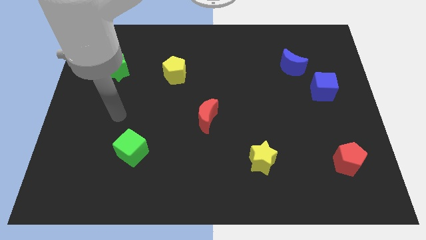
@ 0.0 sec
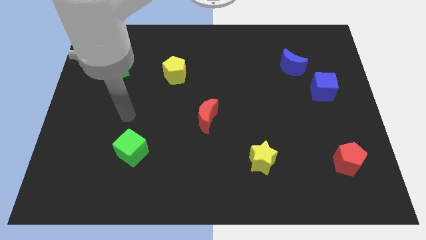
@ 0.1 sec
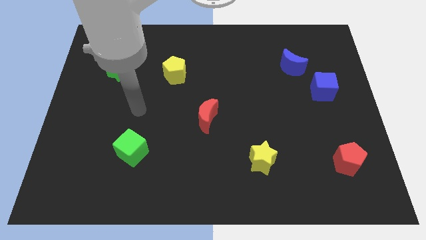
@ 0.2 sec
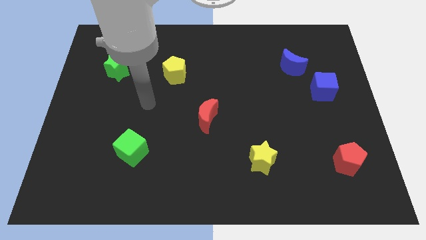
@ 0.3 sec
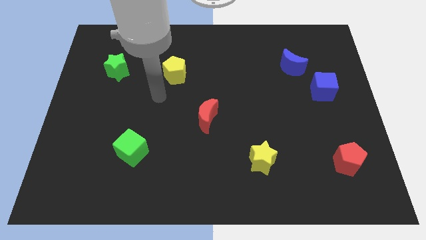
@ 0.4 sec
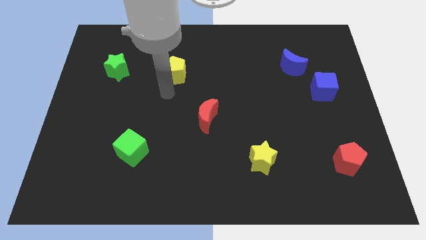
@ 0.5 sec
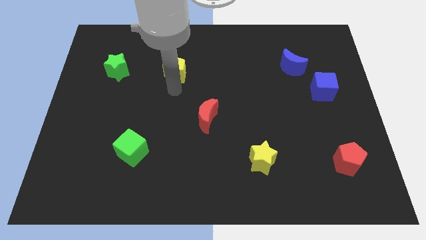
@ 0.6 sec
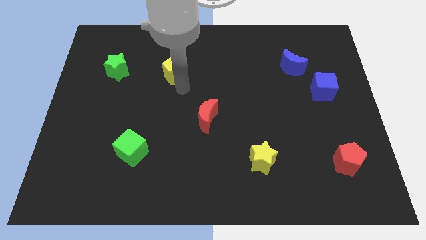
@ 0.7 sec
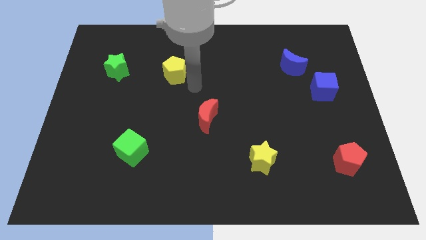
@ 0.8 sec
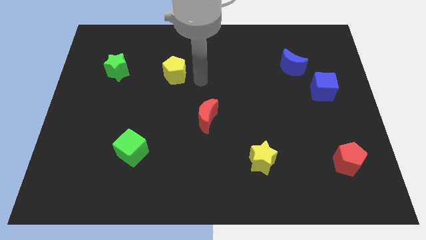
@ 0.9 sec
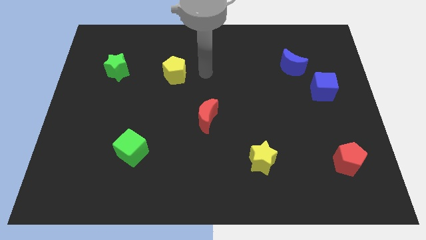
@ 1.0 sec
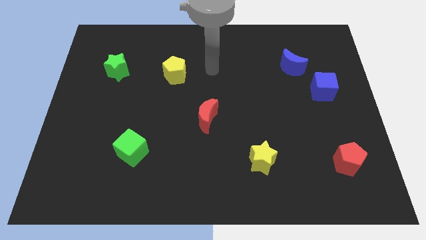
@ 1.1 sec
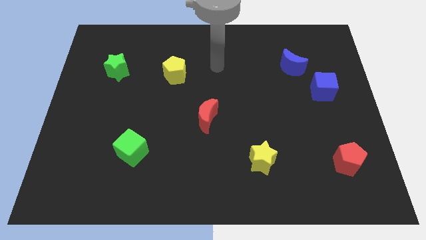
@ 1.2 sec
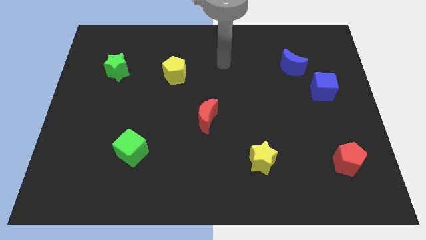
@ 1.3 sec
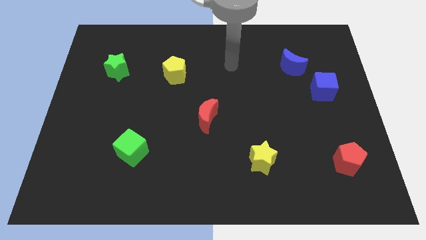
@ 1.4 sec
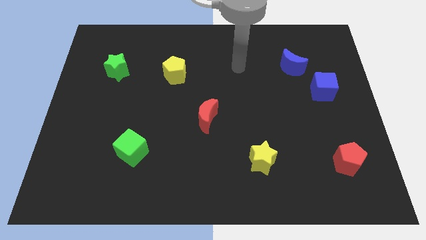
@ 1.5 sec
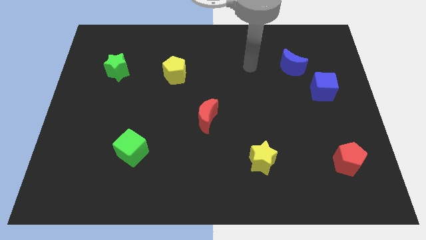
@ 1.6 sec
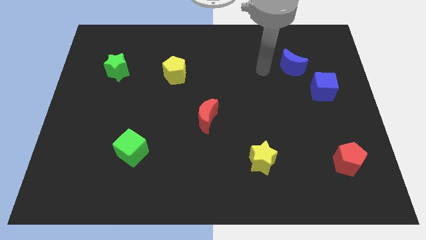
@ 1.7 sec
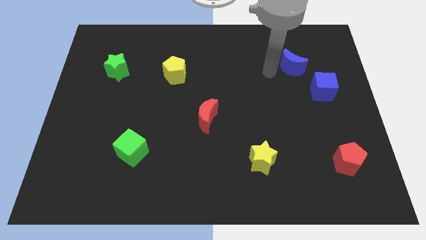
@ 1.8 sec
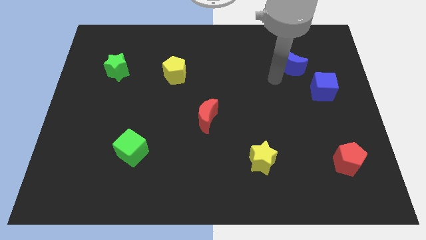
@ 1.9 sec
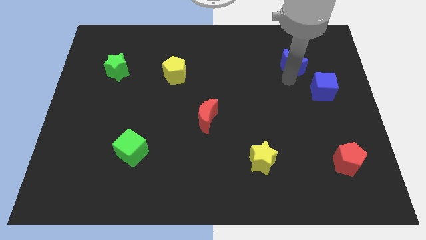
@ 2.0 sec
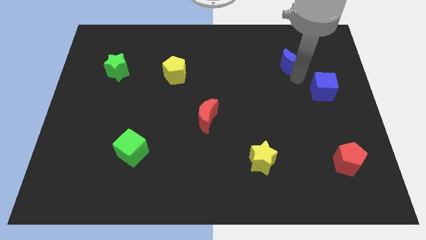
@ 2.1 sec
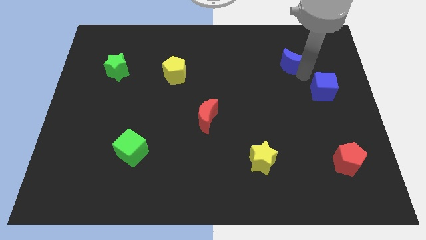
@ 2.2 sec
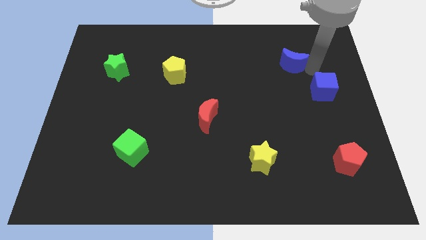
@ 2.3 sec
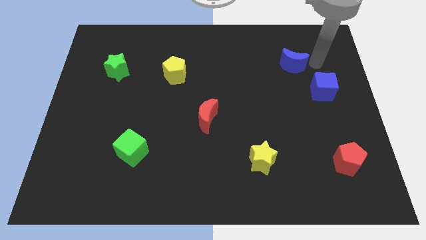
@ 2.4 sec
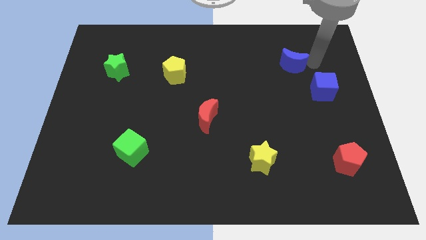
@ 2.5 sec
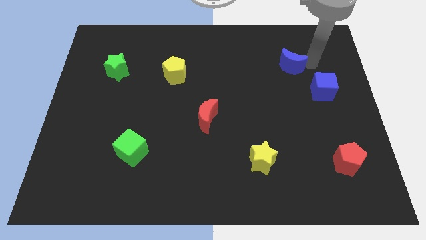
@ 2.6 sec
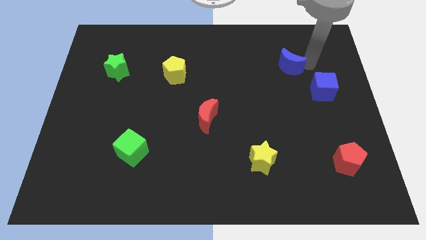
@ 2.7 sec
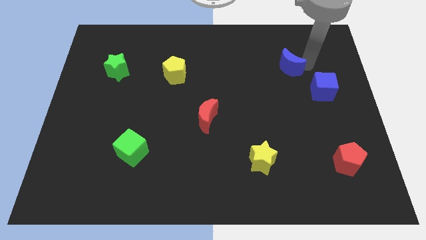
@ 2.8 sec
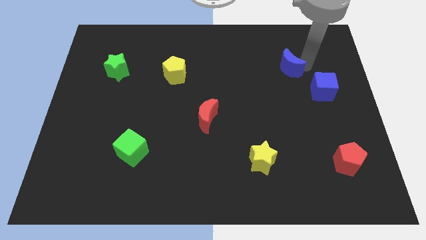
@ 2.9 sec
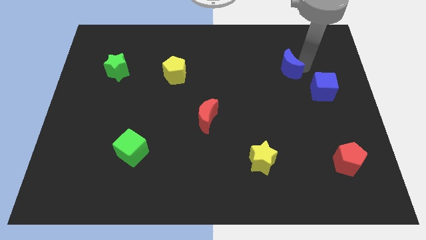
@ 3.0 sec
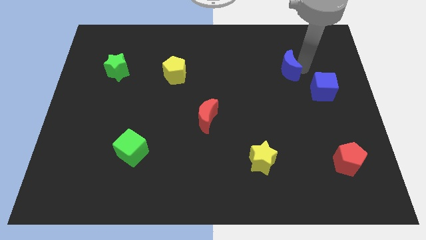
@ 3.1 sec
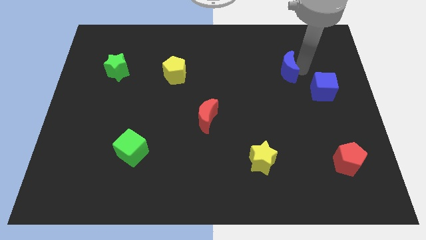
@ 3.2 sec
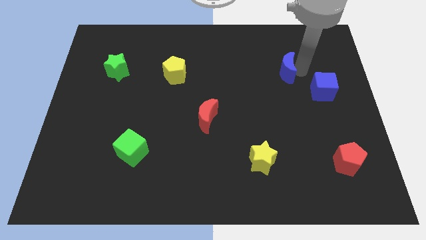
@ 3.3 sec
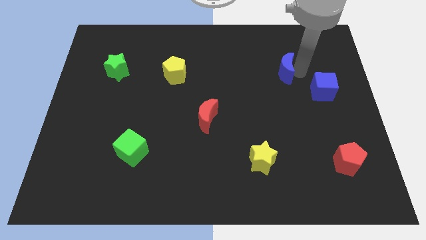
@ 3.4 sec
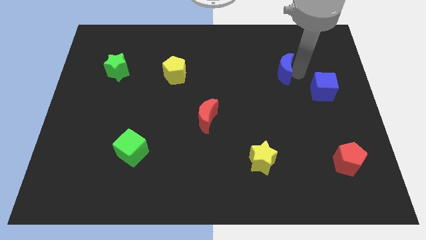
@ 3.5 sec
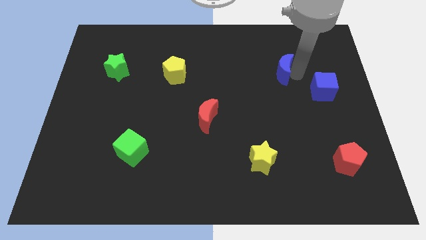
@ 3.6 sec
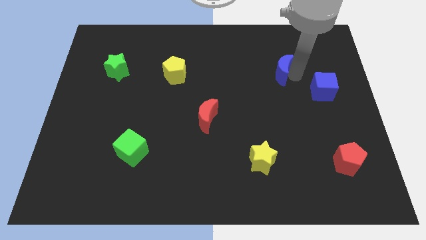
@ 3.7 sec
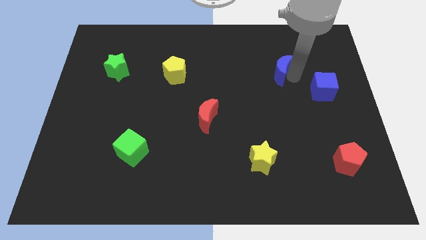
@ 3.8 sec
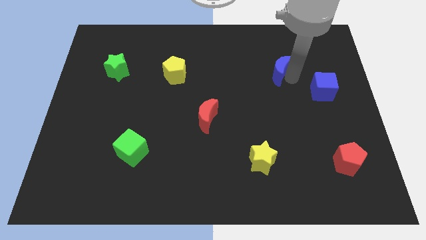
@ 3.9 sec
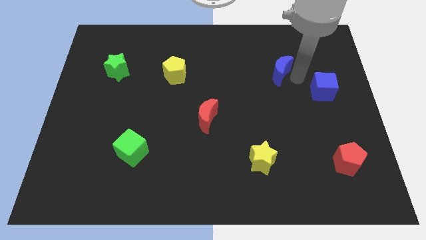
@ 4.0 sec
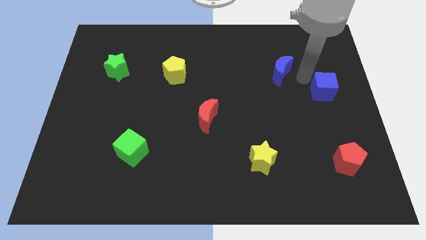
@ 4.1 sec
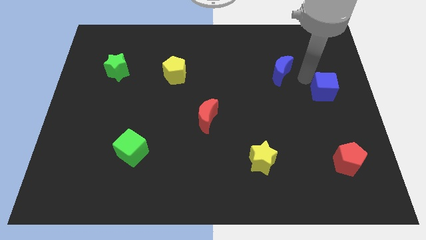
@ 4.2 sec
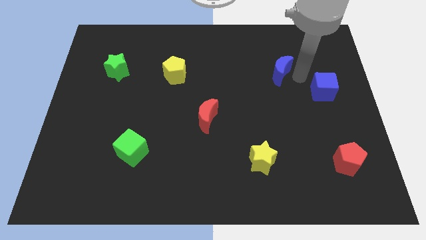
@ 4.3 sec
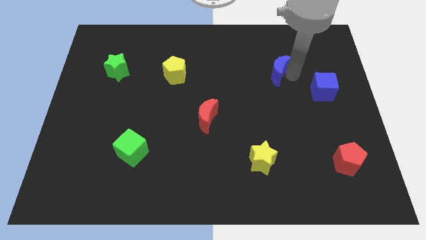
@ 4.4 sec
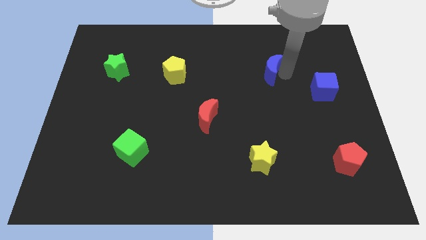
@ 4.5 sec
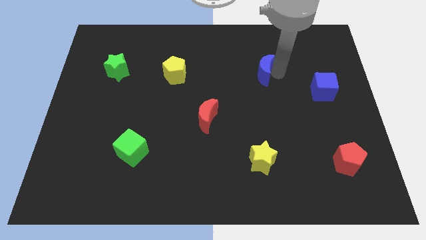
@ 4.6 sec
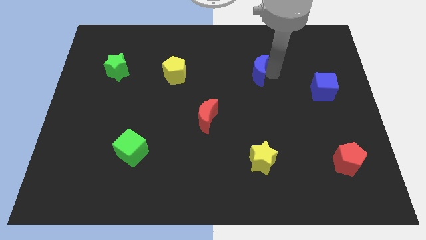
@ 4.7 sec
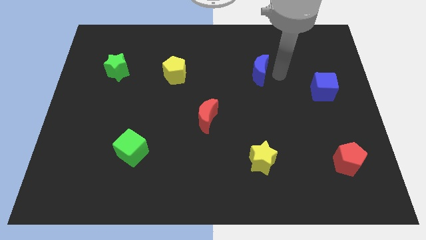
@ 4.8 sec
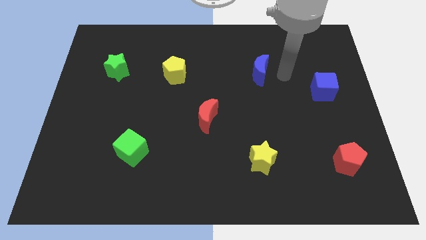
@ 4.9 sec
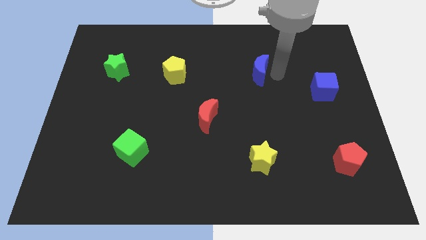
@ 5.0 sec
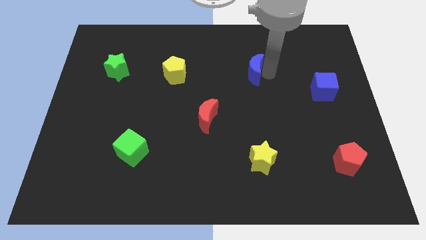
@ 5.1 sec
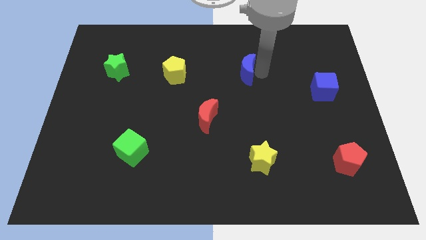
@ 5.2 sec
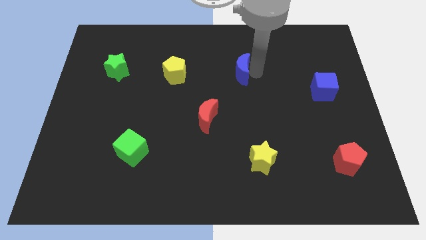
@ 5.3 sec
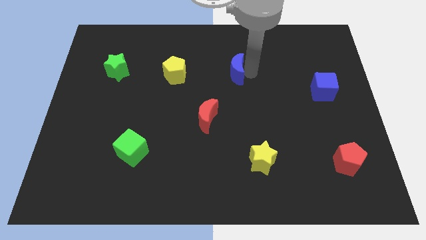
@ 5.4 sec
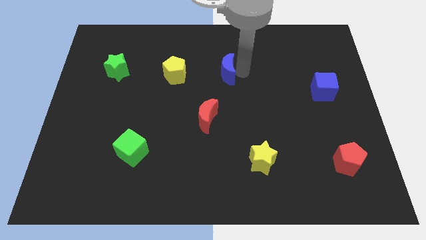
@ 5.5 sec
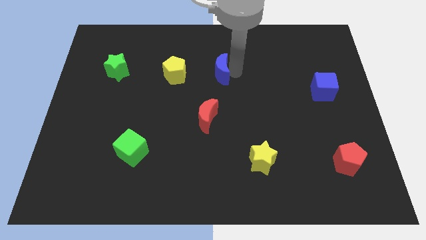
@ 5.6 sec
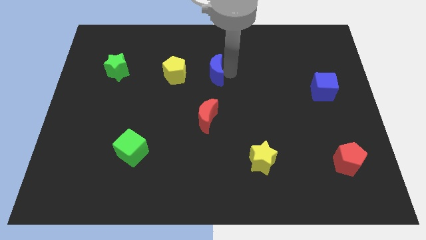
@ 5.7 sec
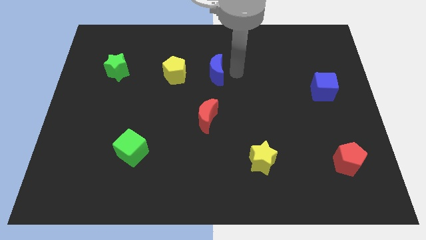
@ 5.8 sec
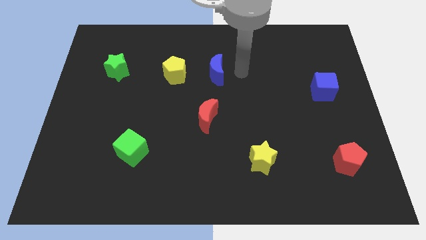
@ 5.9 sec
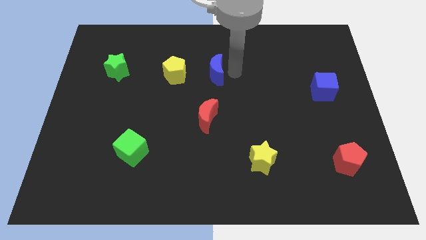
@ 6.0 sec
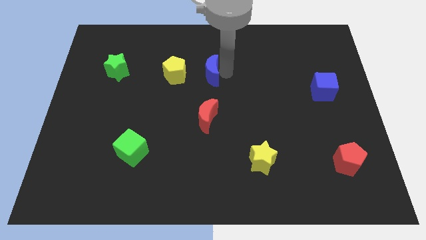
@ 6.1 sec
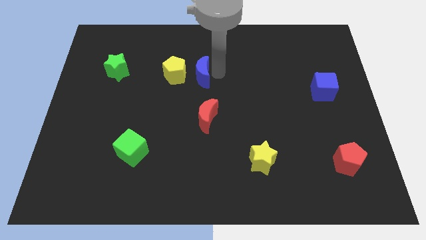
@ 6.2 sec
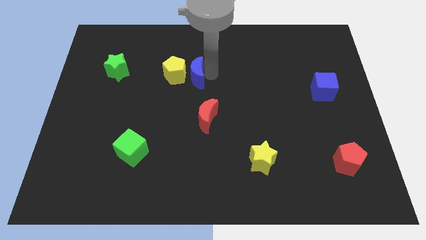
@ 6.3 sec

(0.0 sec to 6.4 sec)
move the blue moon next to the yellow pentagon

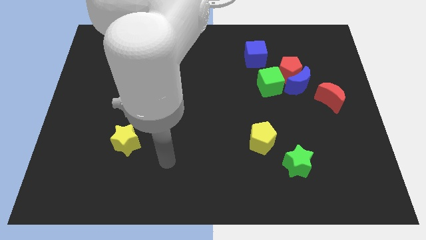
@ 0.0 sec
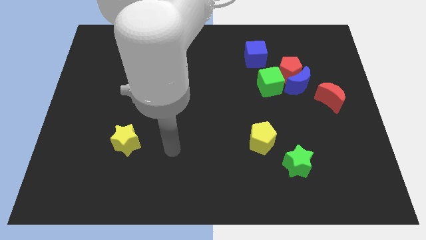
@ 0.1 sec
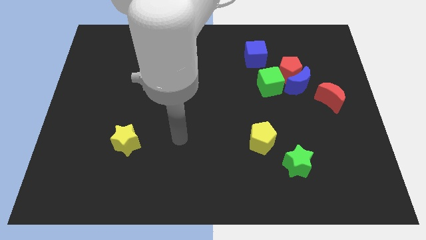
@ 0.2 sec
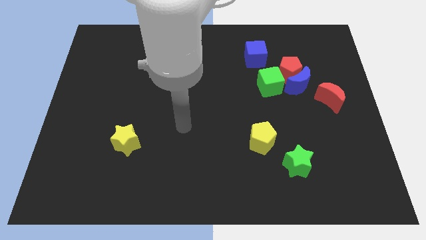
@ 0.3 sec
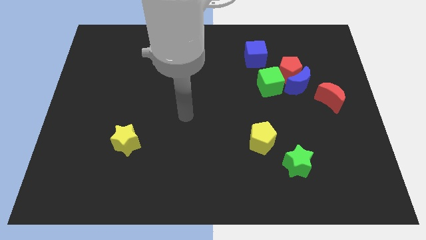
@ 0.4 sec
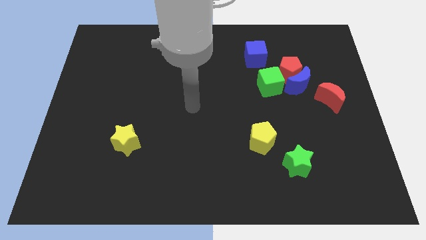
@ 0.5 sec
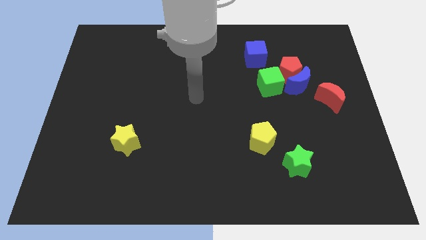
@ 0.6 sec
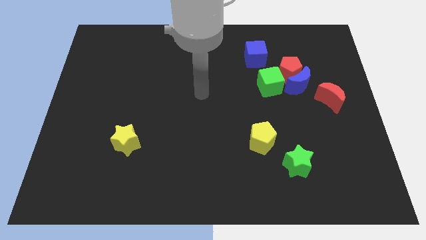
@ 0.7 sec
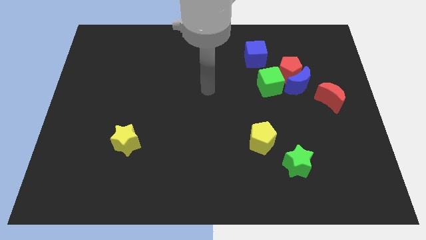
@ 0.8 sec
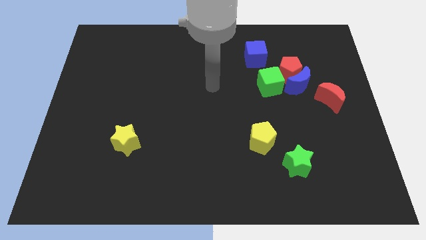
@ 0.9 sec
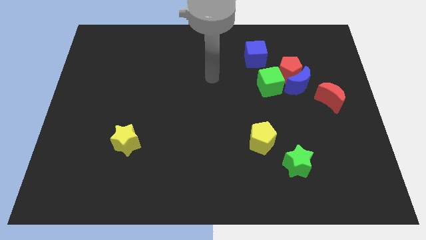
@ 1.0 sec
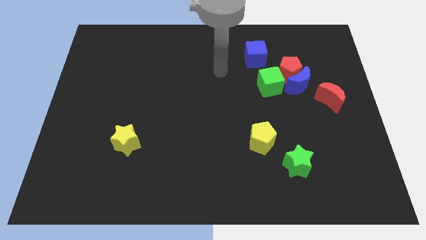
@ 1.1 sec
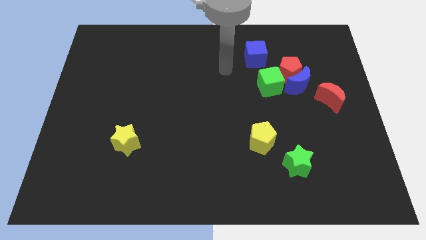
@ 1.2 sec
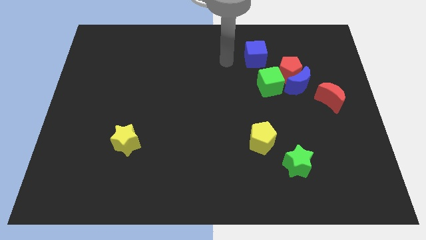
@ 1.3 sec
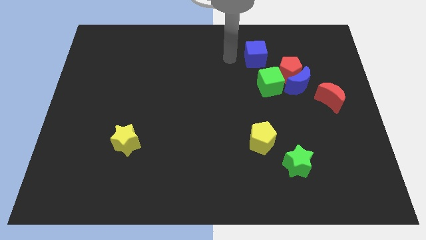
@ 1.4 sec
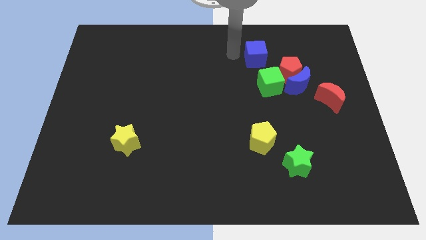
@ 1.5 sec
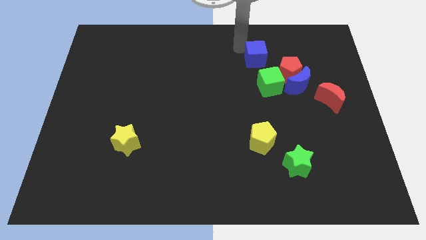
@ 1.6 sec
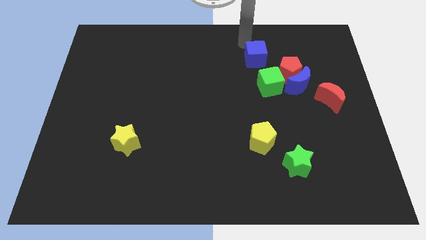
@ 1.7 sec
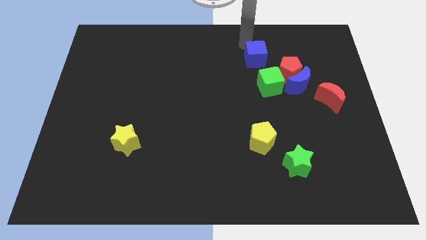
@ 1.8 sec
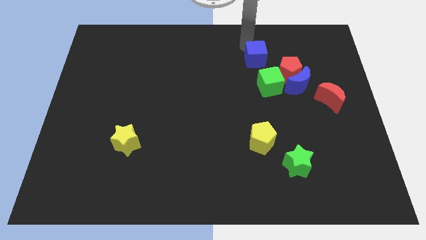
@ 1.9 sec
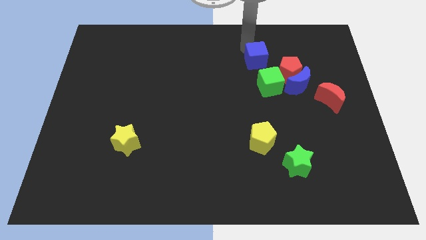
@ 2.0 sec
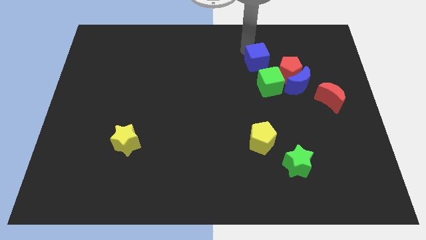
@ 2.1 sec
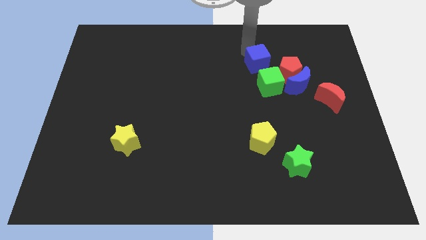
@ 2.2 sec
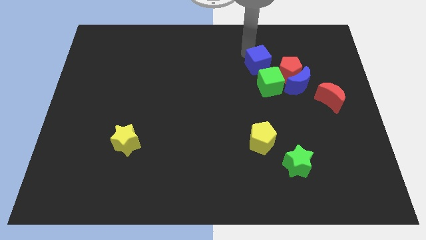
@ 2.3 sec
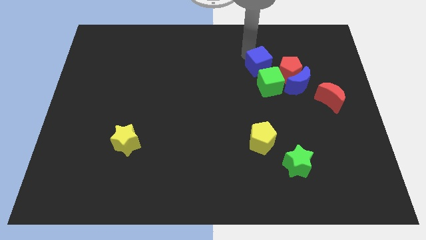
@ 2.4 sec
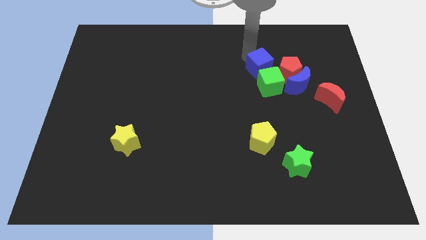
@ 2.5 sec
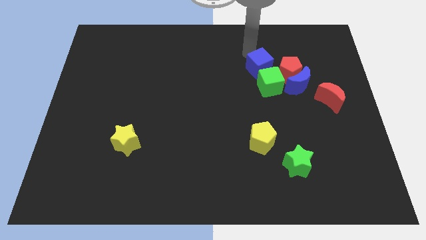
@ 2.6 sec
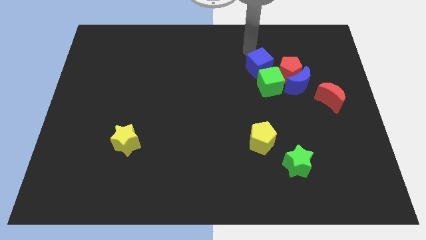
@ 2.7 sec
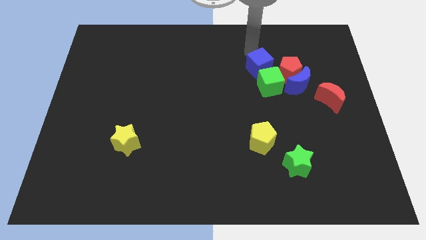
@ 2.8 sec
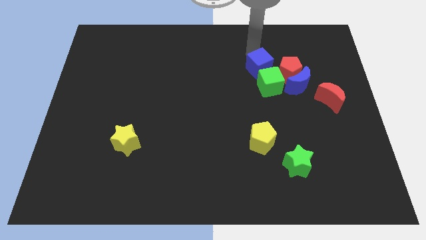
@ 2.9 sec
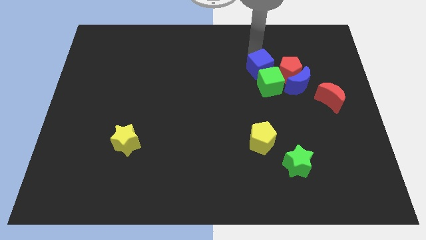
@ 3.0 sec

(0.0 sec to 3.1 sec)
push the blue cube to the green cube
